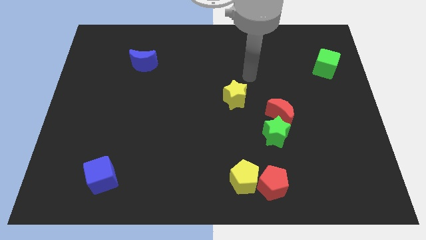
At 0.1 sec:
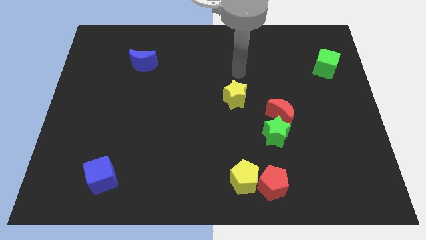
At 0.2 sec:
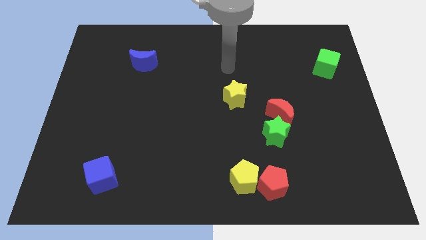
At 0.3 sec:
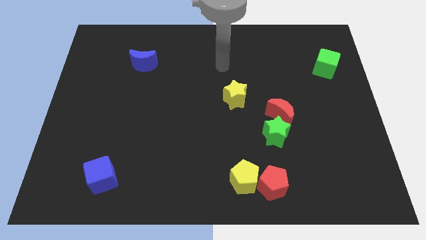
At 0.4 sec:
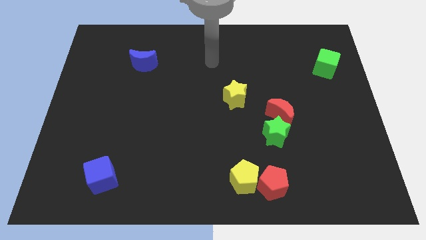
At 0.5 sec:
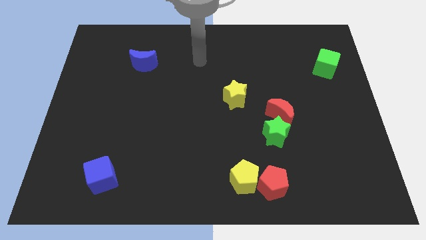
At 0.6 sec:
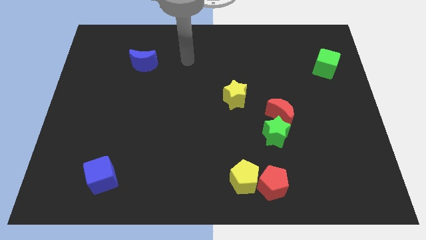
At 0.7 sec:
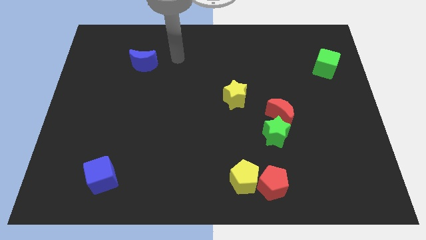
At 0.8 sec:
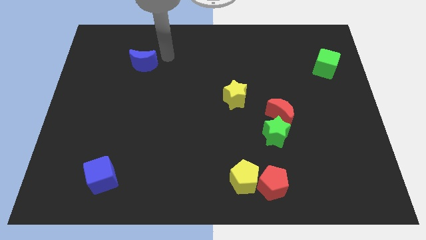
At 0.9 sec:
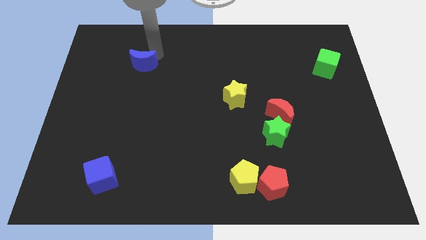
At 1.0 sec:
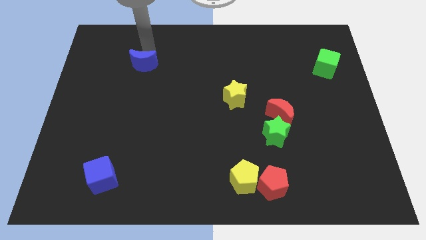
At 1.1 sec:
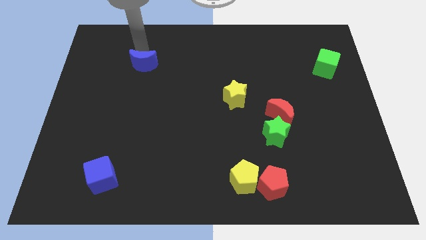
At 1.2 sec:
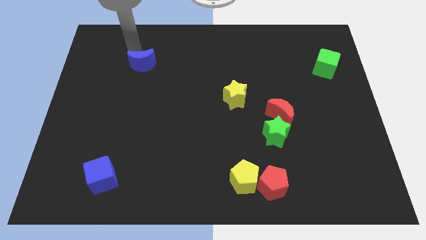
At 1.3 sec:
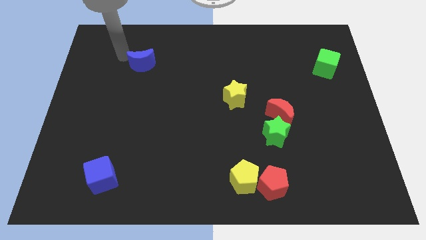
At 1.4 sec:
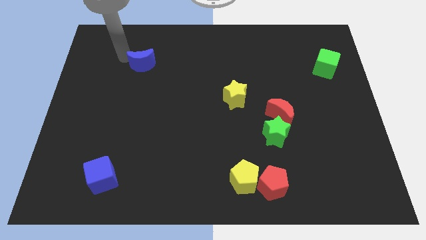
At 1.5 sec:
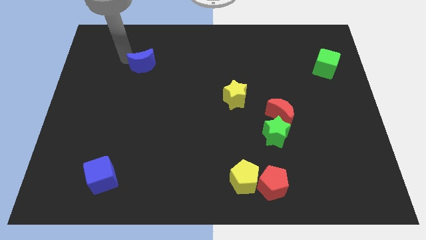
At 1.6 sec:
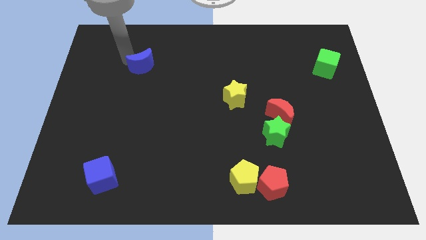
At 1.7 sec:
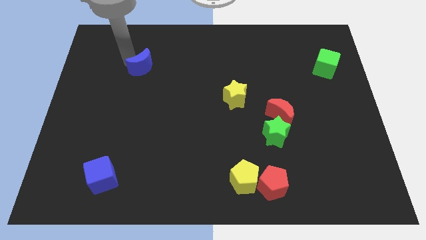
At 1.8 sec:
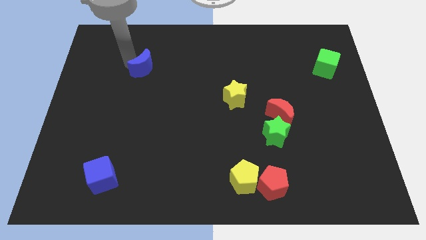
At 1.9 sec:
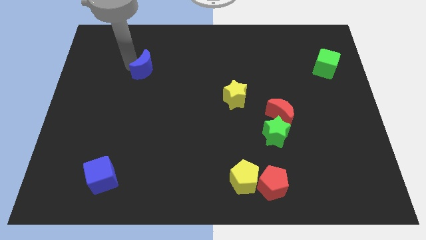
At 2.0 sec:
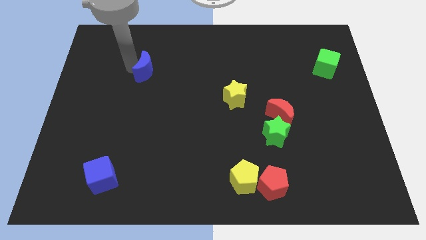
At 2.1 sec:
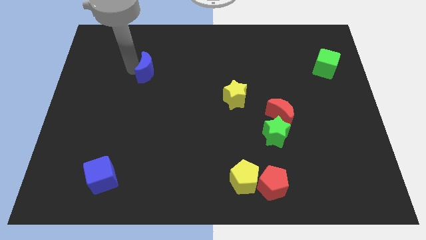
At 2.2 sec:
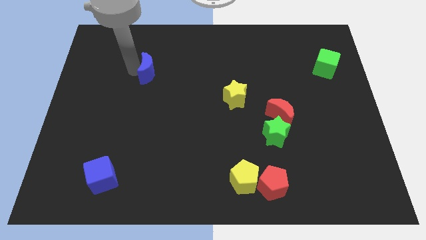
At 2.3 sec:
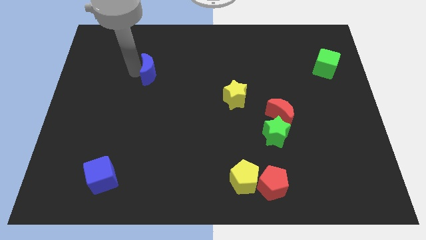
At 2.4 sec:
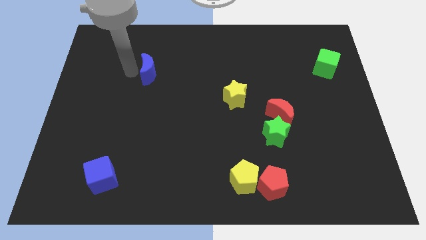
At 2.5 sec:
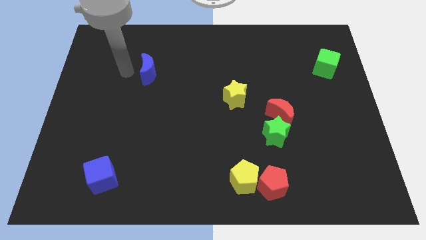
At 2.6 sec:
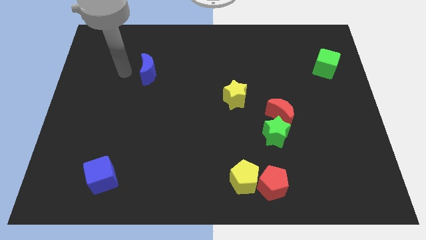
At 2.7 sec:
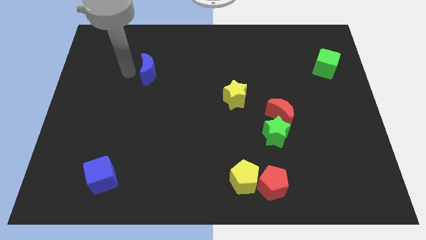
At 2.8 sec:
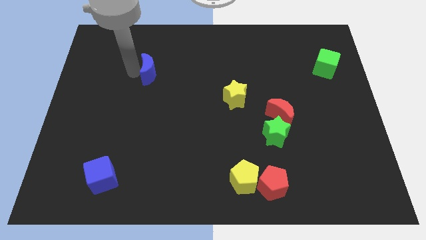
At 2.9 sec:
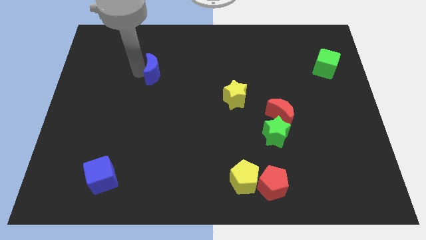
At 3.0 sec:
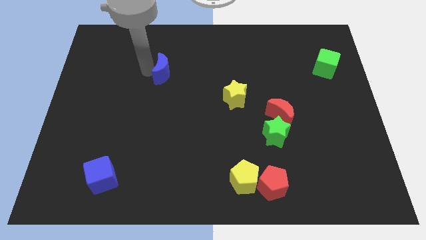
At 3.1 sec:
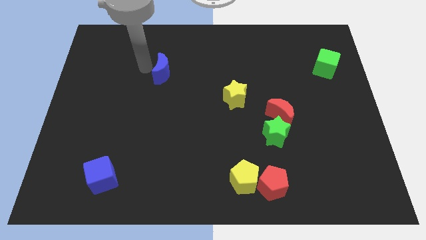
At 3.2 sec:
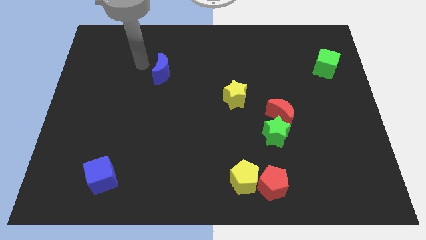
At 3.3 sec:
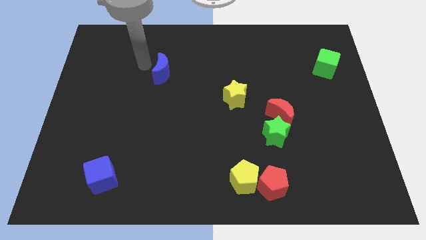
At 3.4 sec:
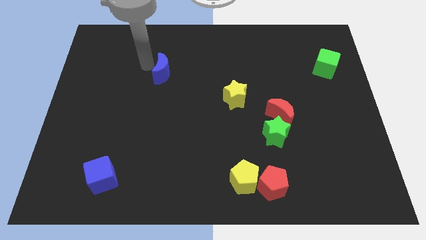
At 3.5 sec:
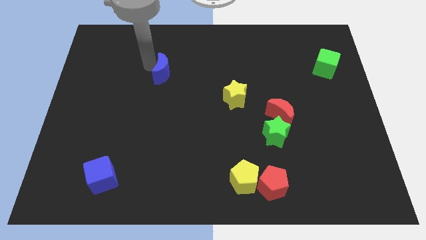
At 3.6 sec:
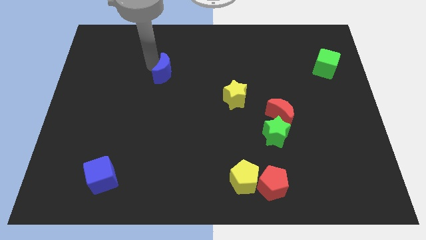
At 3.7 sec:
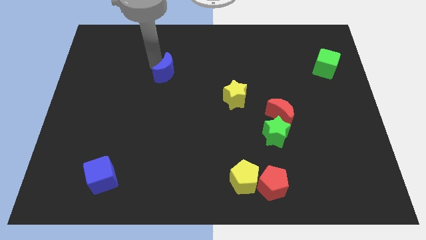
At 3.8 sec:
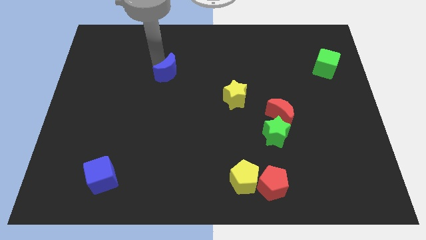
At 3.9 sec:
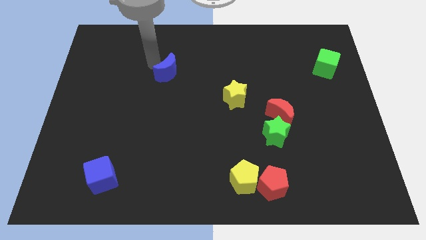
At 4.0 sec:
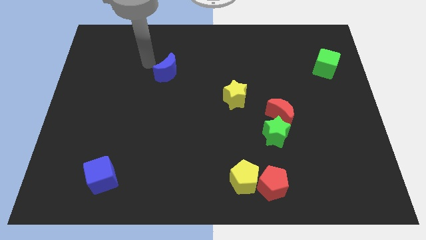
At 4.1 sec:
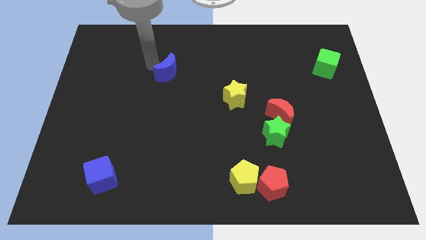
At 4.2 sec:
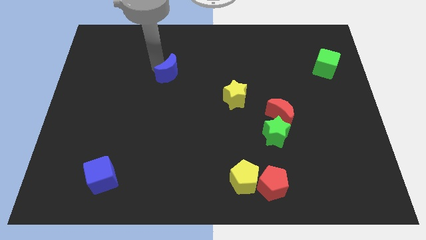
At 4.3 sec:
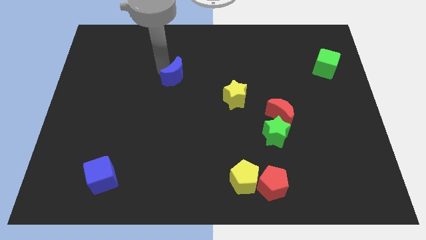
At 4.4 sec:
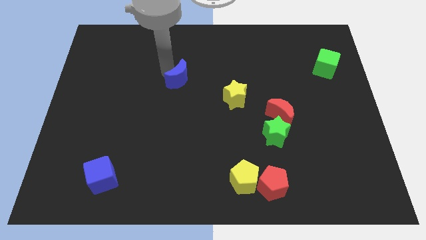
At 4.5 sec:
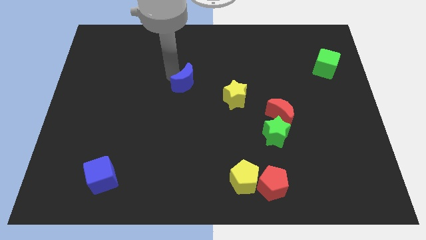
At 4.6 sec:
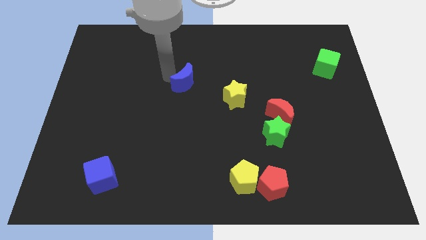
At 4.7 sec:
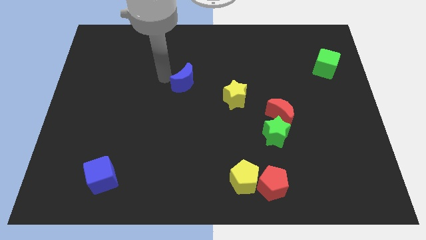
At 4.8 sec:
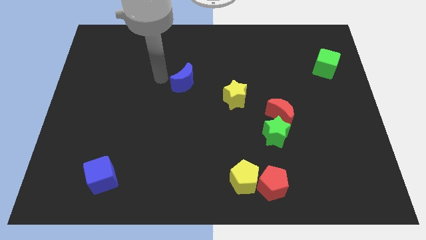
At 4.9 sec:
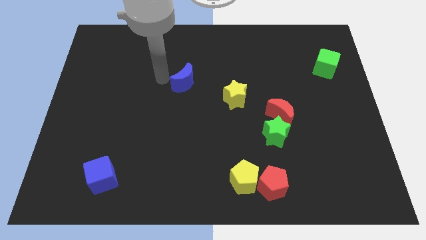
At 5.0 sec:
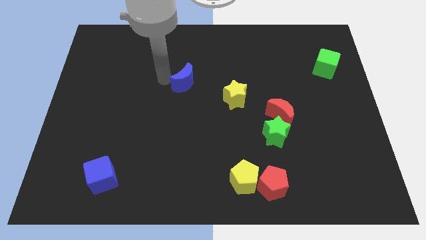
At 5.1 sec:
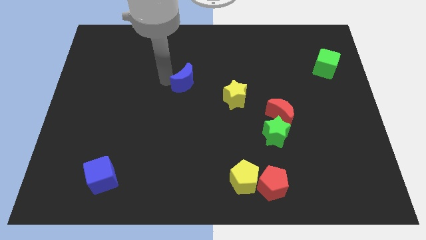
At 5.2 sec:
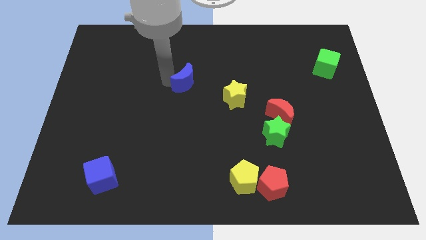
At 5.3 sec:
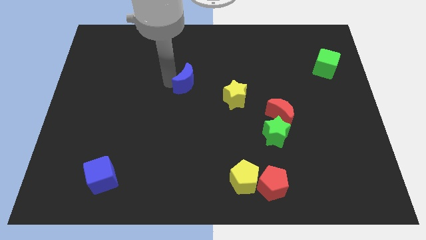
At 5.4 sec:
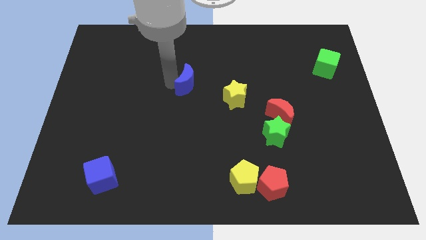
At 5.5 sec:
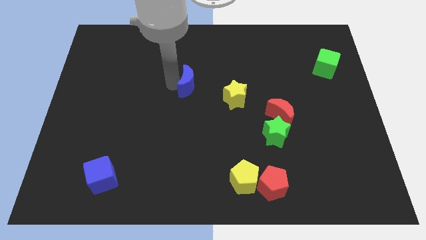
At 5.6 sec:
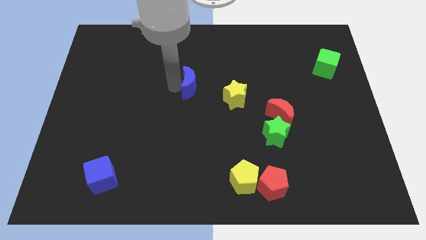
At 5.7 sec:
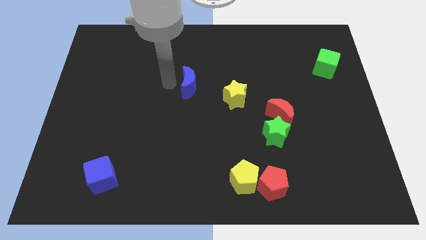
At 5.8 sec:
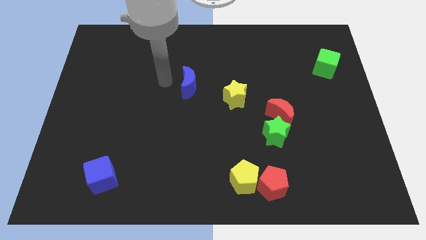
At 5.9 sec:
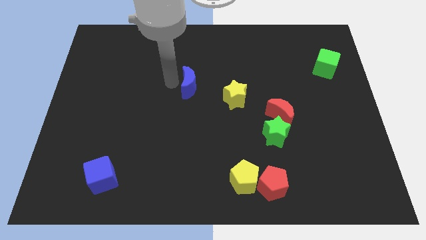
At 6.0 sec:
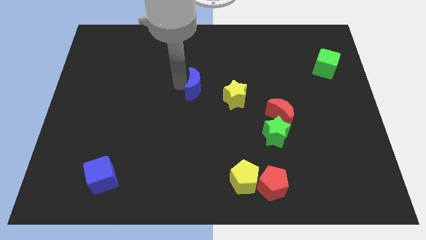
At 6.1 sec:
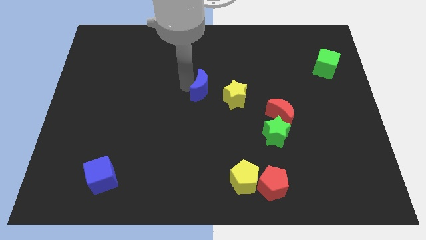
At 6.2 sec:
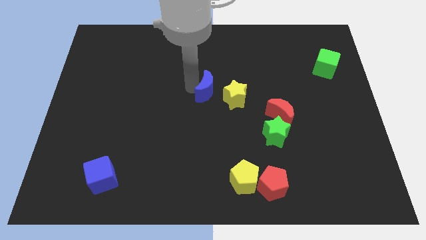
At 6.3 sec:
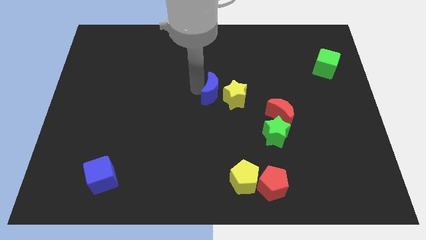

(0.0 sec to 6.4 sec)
push the blue moon to the yellow star

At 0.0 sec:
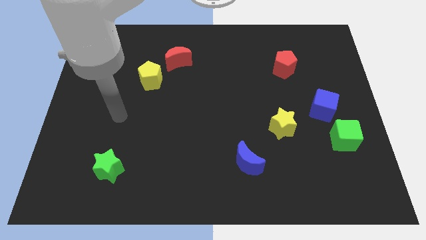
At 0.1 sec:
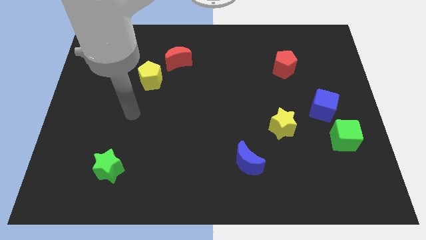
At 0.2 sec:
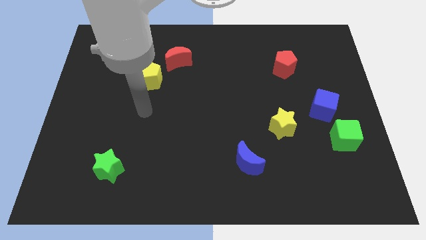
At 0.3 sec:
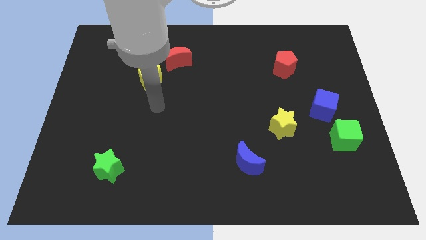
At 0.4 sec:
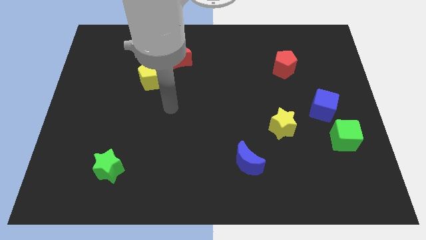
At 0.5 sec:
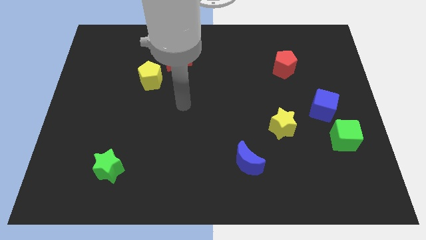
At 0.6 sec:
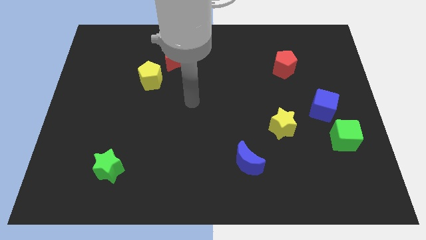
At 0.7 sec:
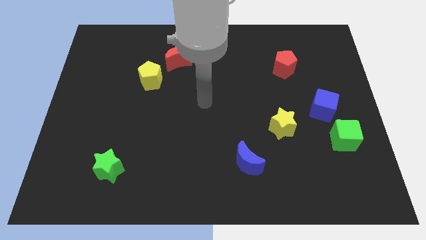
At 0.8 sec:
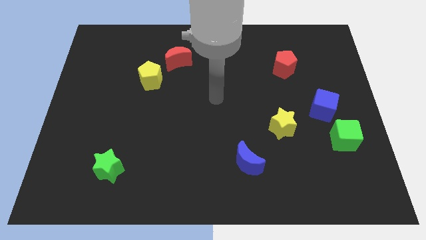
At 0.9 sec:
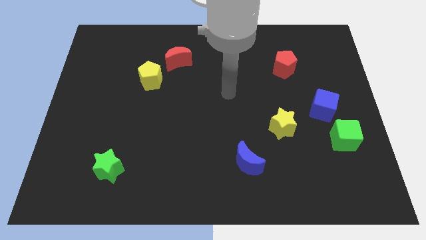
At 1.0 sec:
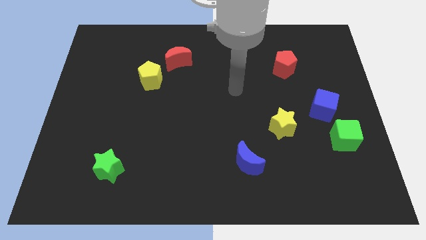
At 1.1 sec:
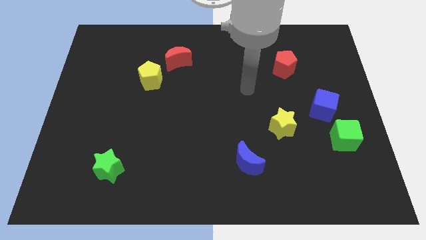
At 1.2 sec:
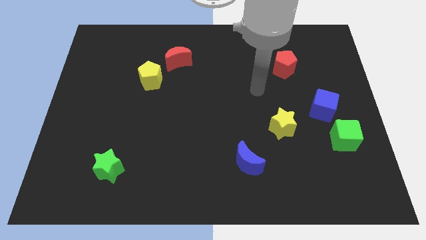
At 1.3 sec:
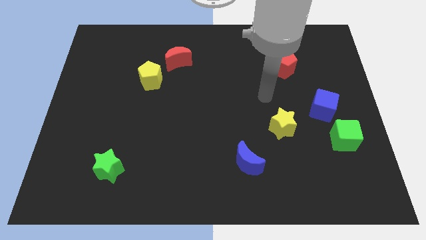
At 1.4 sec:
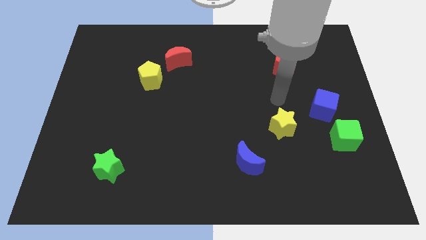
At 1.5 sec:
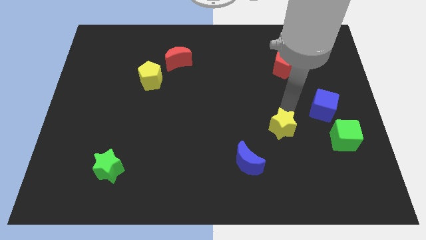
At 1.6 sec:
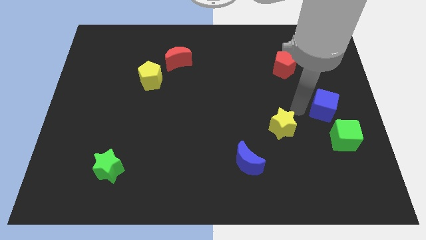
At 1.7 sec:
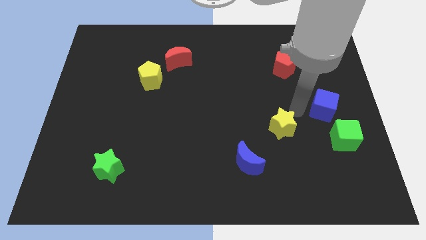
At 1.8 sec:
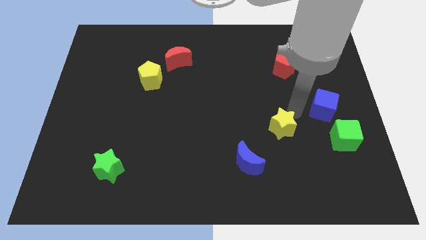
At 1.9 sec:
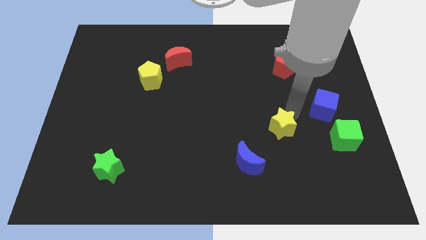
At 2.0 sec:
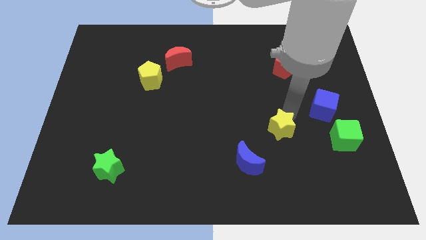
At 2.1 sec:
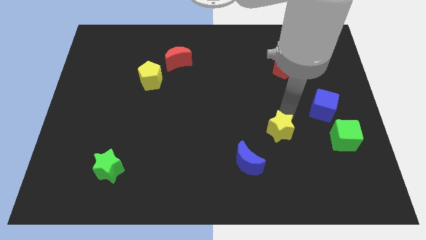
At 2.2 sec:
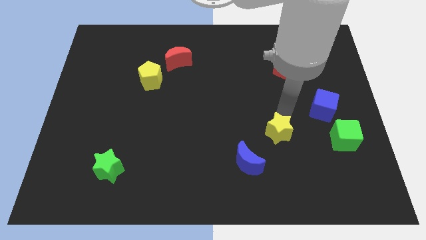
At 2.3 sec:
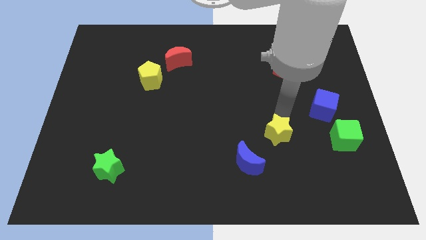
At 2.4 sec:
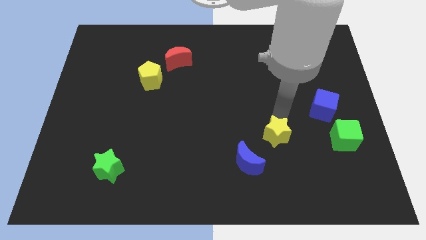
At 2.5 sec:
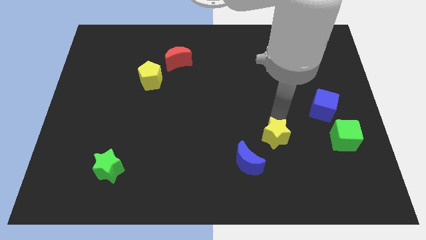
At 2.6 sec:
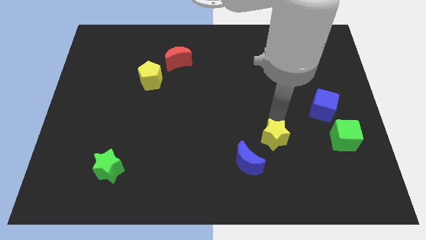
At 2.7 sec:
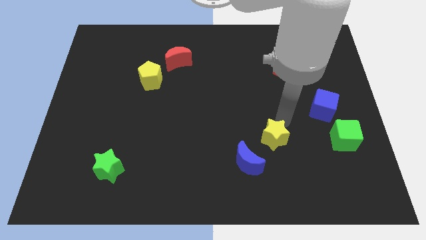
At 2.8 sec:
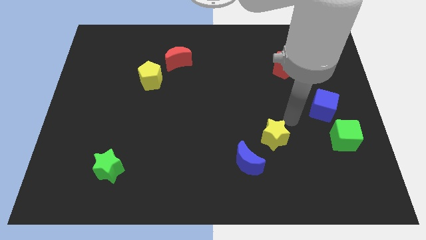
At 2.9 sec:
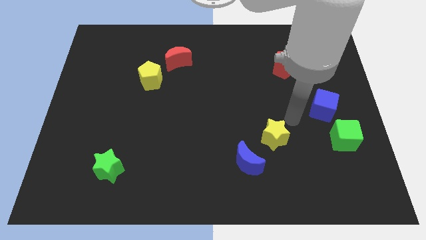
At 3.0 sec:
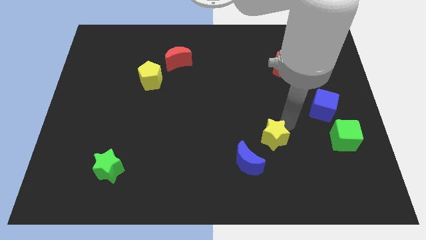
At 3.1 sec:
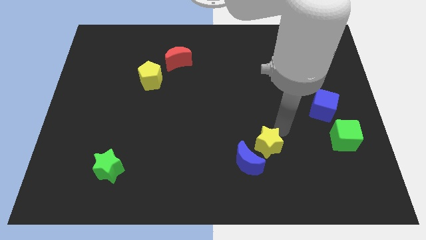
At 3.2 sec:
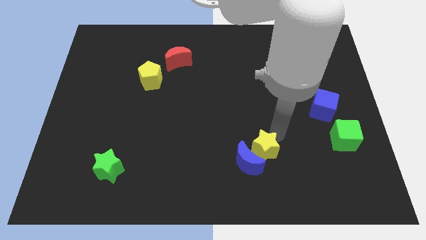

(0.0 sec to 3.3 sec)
put the yellow star to the blue moon
